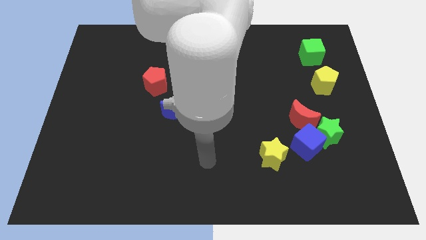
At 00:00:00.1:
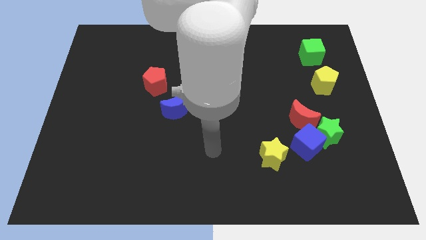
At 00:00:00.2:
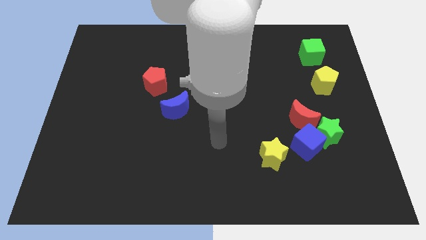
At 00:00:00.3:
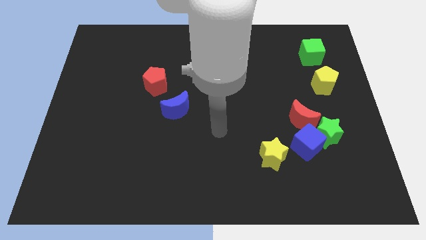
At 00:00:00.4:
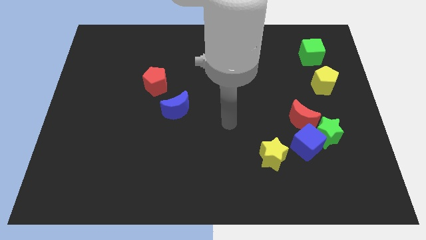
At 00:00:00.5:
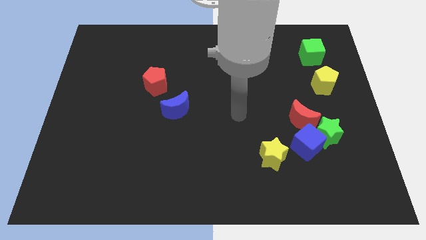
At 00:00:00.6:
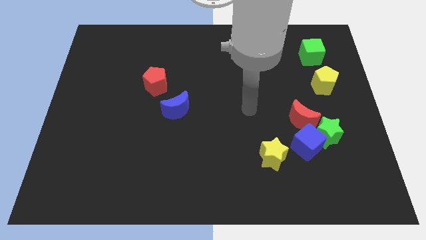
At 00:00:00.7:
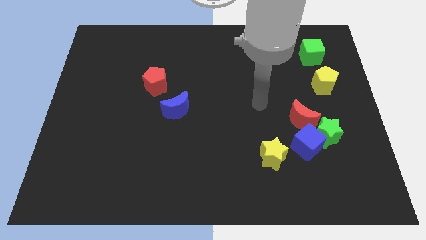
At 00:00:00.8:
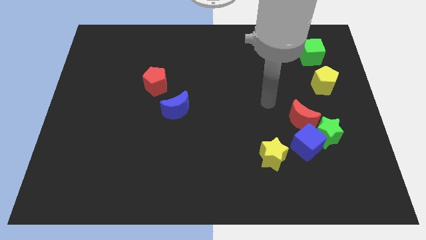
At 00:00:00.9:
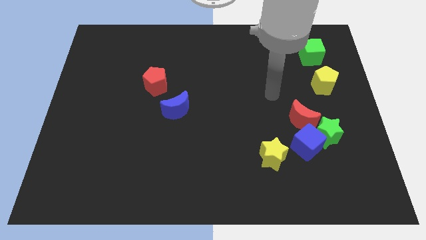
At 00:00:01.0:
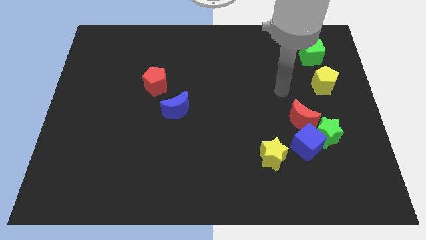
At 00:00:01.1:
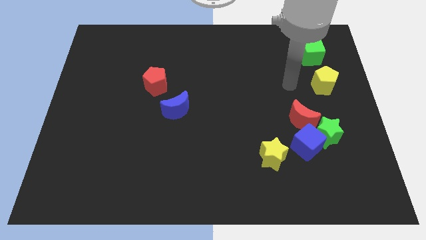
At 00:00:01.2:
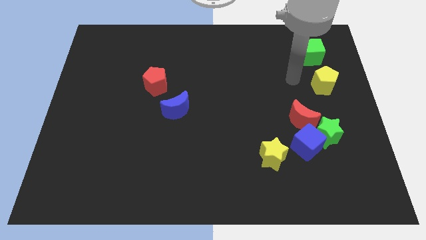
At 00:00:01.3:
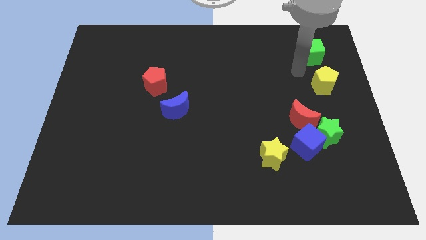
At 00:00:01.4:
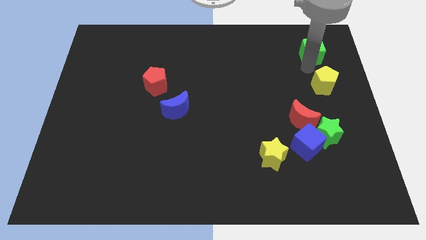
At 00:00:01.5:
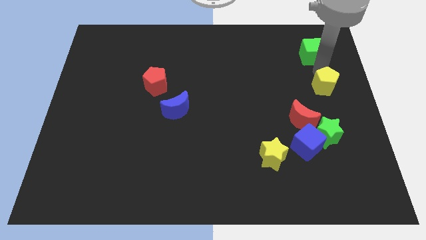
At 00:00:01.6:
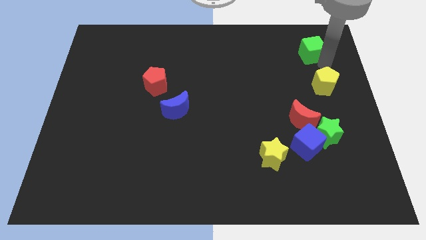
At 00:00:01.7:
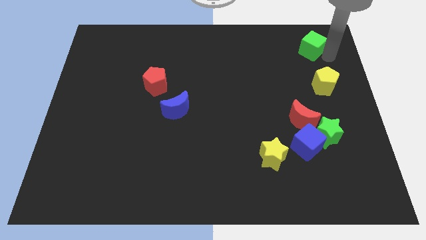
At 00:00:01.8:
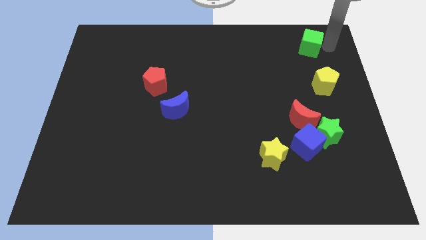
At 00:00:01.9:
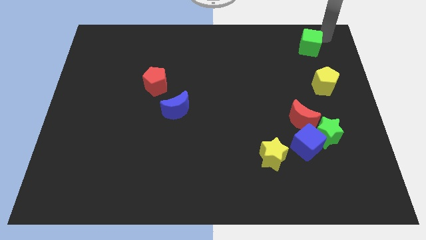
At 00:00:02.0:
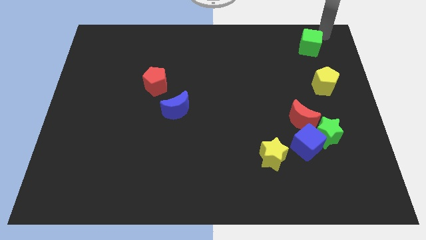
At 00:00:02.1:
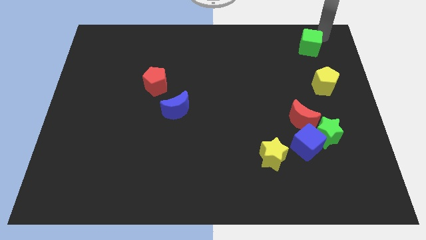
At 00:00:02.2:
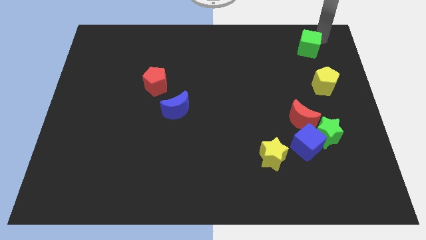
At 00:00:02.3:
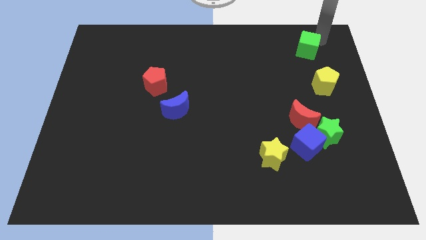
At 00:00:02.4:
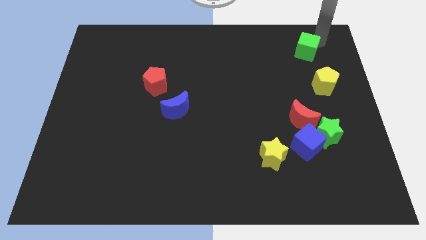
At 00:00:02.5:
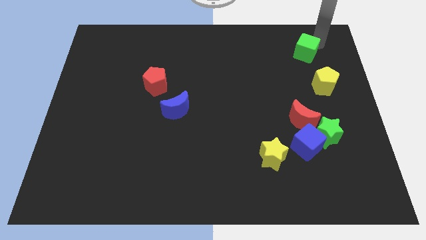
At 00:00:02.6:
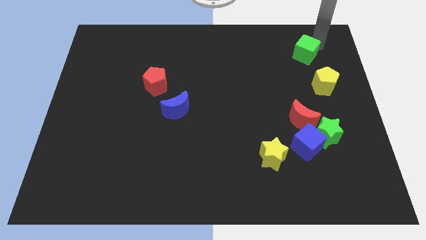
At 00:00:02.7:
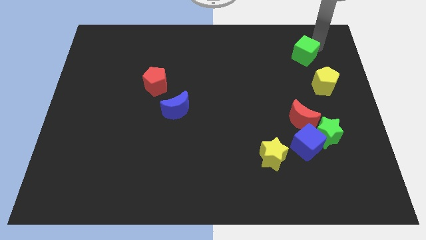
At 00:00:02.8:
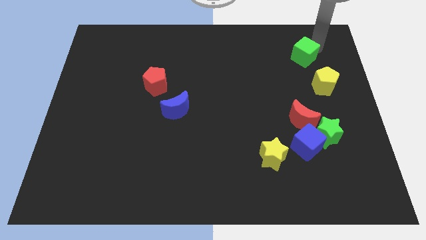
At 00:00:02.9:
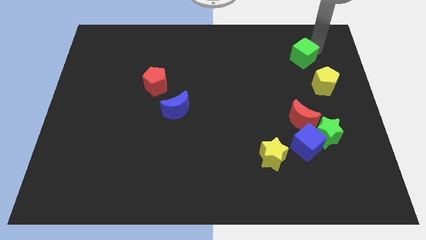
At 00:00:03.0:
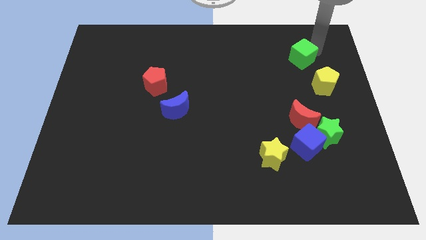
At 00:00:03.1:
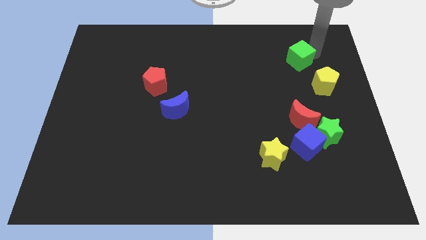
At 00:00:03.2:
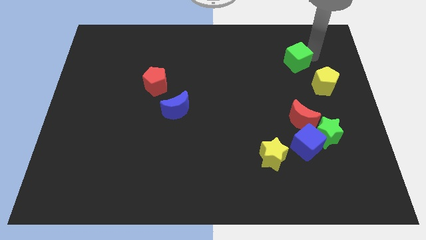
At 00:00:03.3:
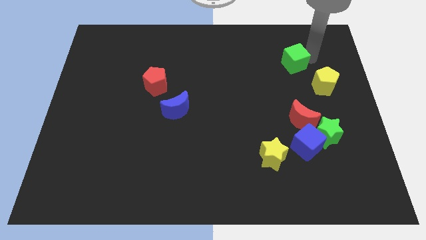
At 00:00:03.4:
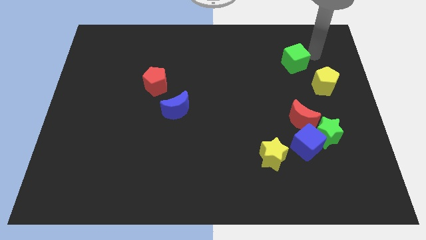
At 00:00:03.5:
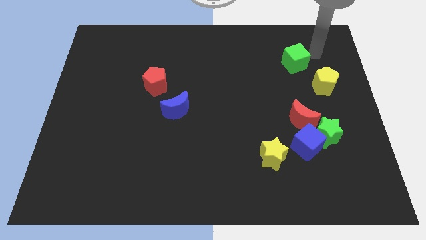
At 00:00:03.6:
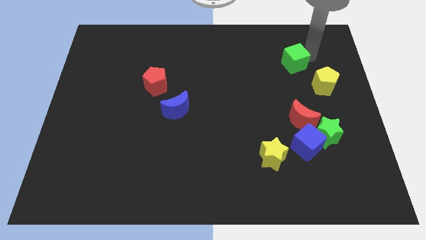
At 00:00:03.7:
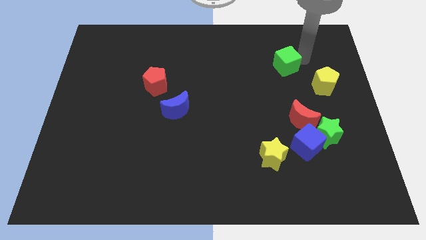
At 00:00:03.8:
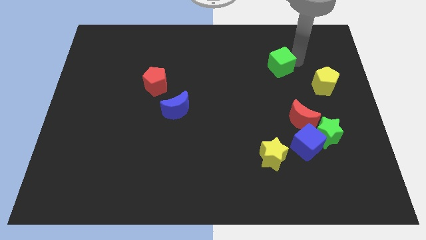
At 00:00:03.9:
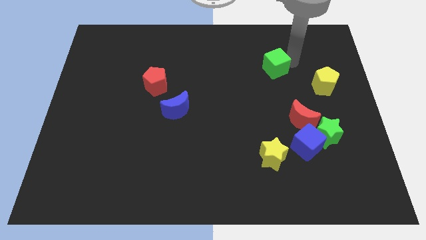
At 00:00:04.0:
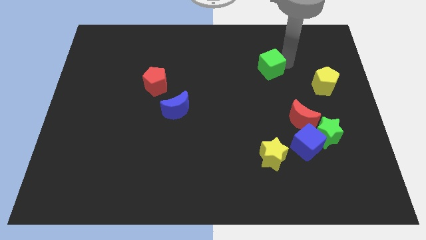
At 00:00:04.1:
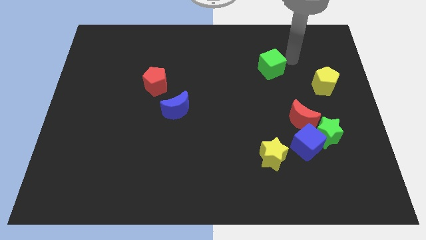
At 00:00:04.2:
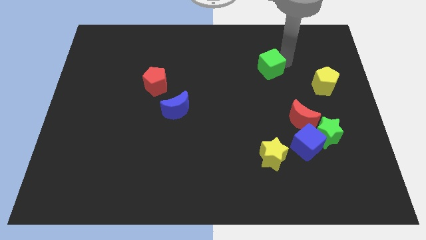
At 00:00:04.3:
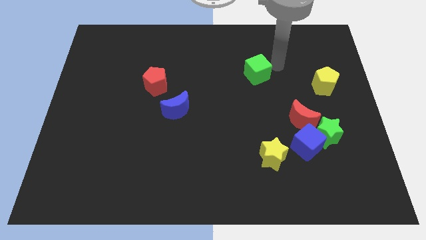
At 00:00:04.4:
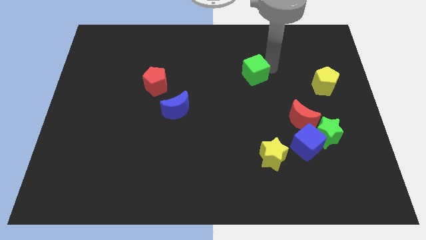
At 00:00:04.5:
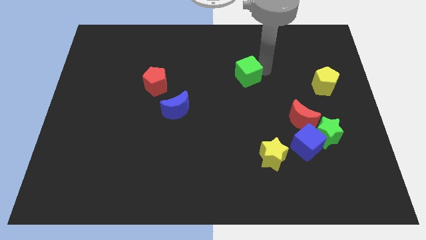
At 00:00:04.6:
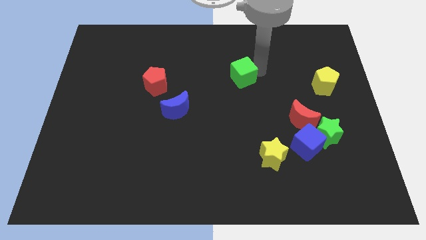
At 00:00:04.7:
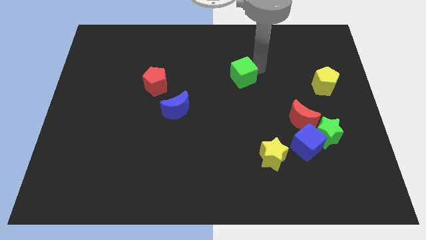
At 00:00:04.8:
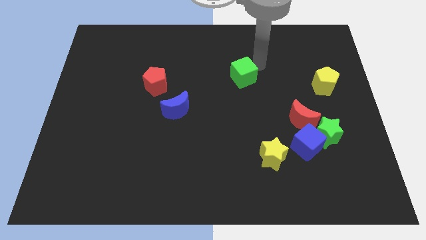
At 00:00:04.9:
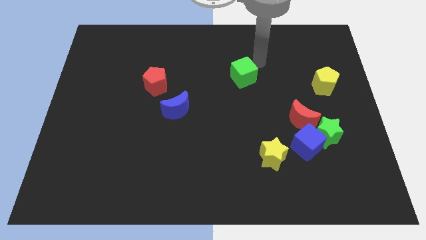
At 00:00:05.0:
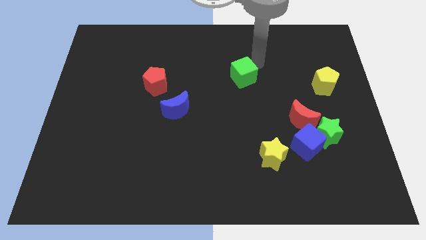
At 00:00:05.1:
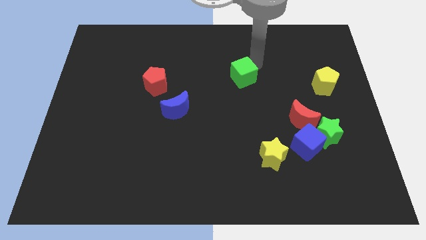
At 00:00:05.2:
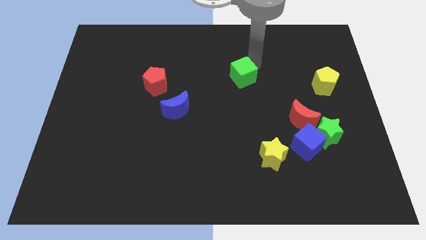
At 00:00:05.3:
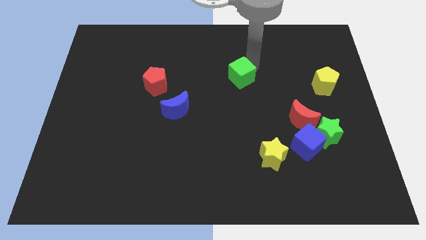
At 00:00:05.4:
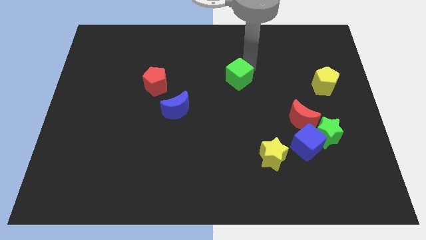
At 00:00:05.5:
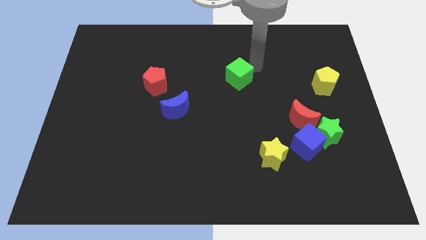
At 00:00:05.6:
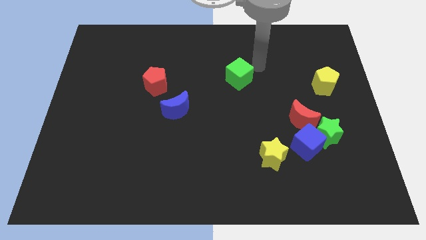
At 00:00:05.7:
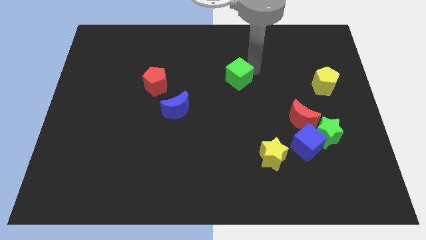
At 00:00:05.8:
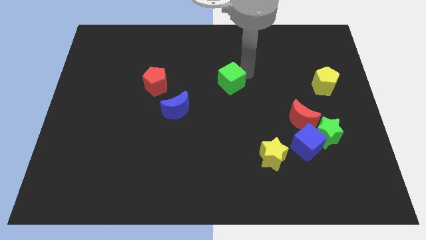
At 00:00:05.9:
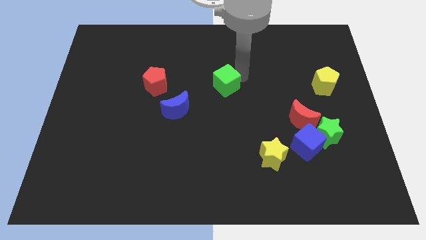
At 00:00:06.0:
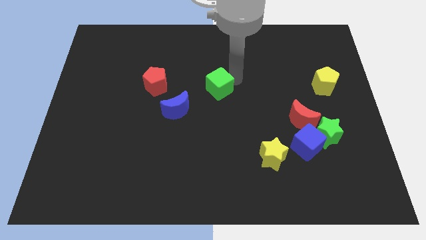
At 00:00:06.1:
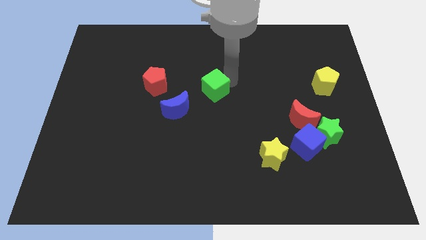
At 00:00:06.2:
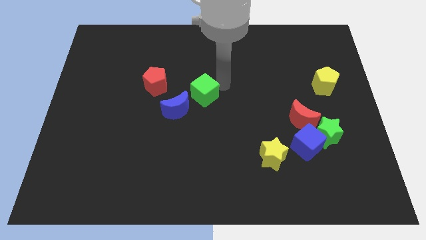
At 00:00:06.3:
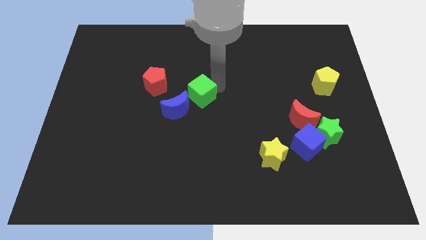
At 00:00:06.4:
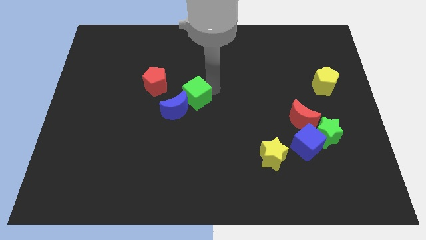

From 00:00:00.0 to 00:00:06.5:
slide the green cube close to the blue moon

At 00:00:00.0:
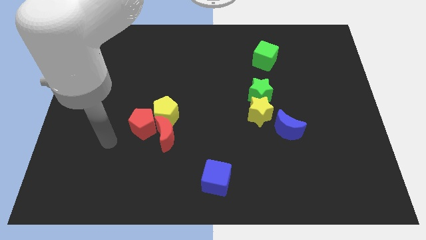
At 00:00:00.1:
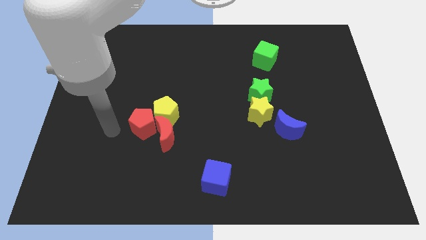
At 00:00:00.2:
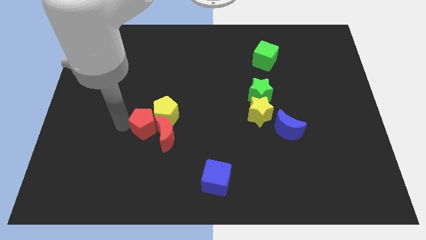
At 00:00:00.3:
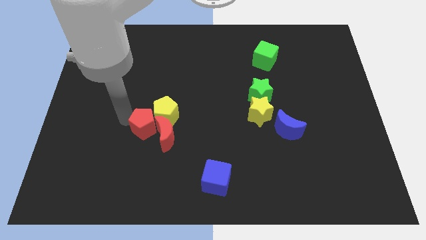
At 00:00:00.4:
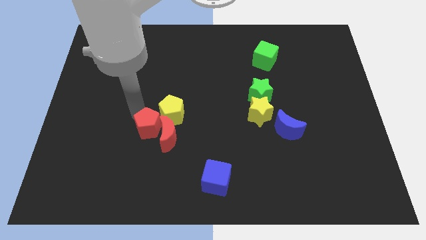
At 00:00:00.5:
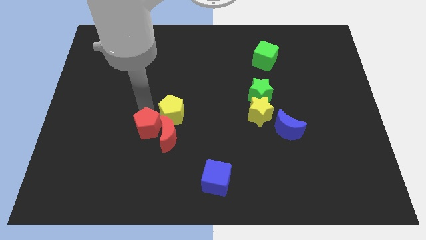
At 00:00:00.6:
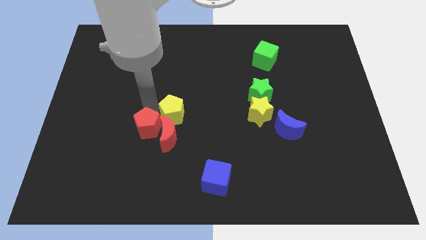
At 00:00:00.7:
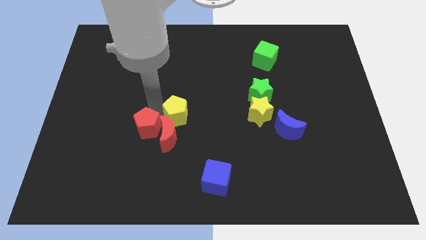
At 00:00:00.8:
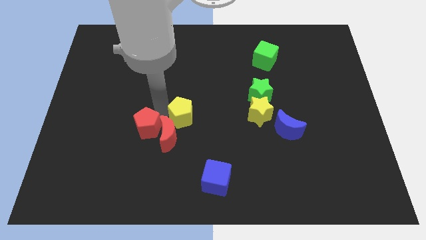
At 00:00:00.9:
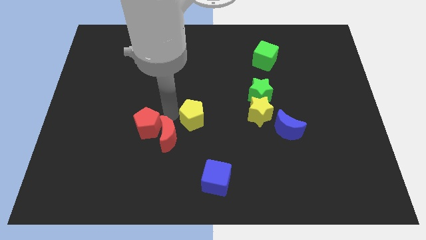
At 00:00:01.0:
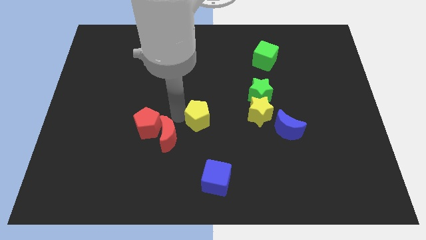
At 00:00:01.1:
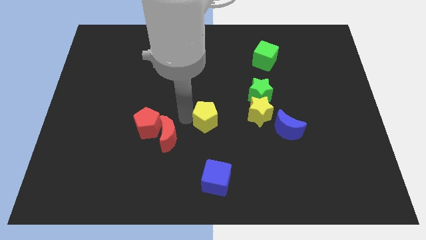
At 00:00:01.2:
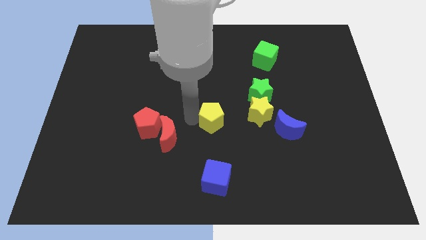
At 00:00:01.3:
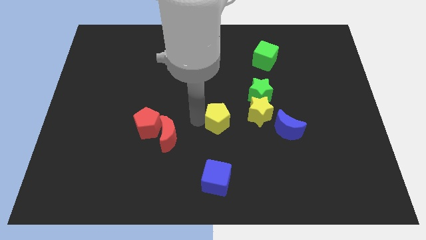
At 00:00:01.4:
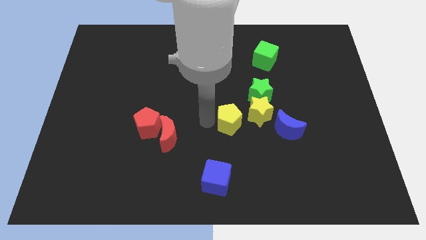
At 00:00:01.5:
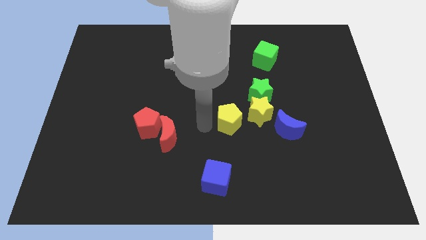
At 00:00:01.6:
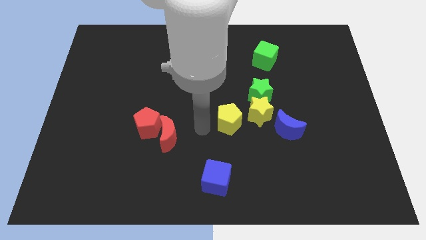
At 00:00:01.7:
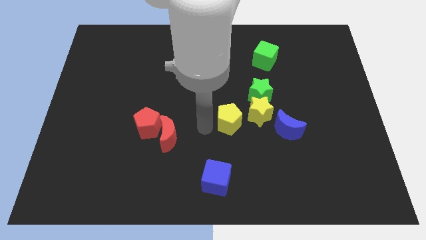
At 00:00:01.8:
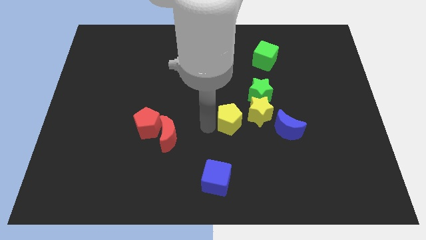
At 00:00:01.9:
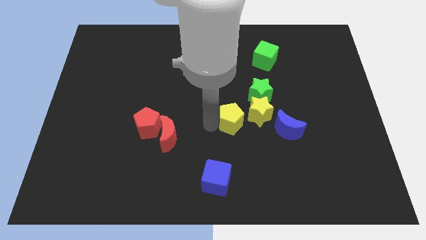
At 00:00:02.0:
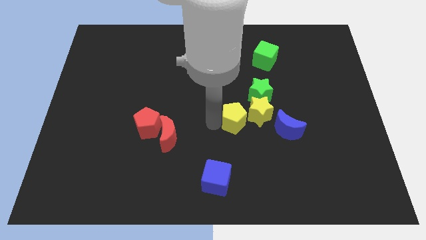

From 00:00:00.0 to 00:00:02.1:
move the yellow pentagon next to the yellow star
